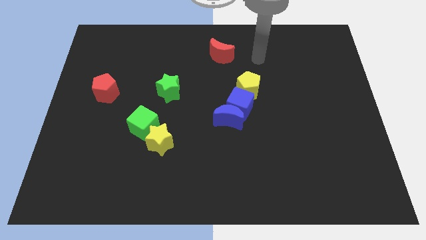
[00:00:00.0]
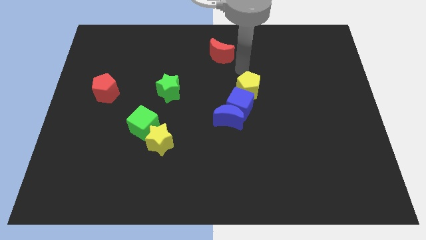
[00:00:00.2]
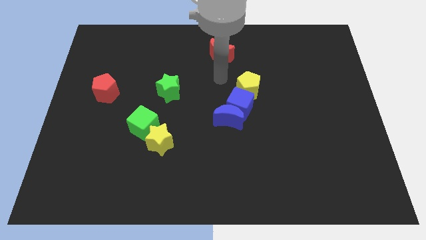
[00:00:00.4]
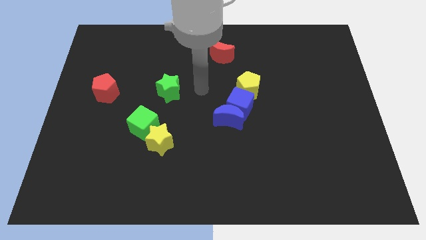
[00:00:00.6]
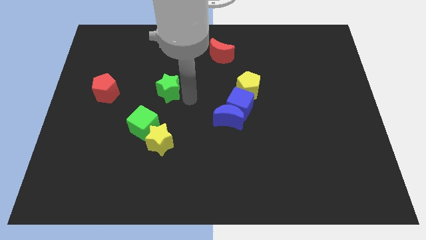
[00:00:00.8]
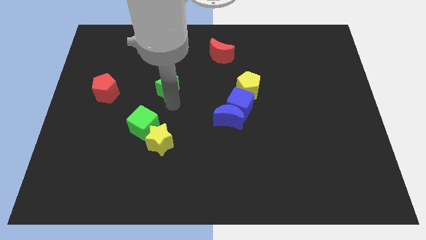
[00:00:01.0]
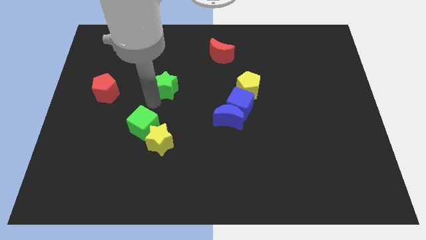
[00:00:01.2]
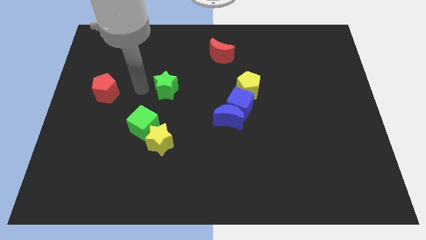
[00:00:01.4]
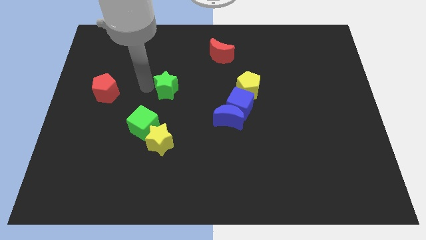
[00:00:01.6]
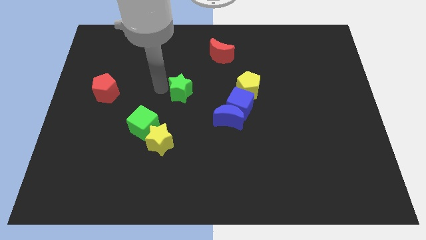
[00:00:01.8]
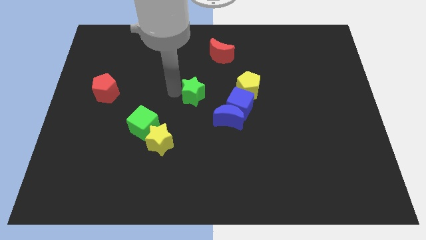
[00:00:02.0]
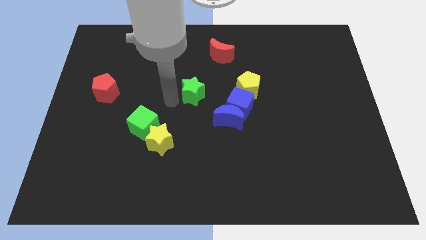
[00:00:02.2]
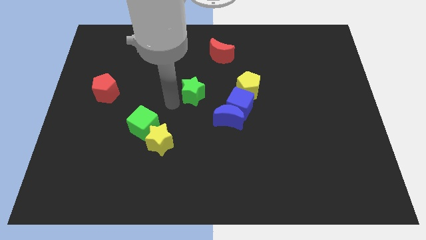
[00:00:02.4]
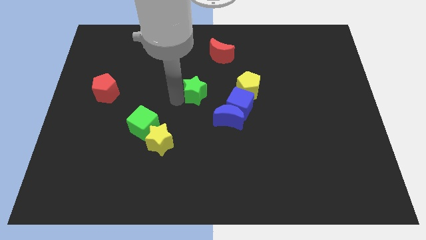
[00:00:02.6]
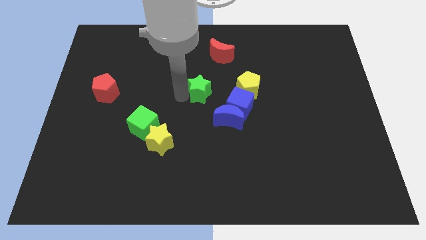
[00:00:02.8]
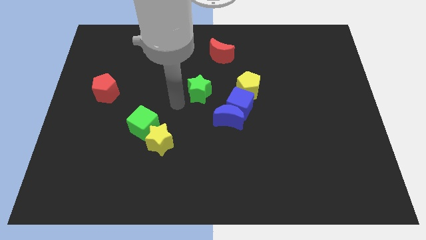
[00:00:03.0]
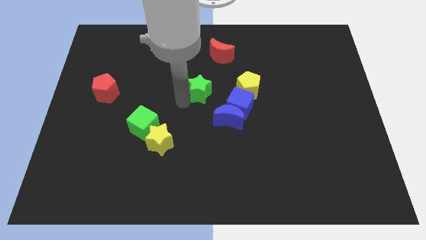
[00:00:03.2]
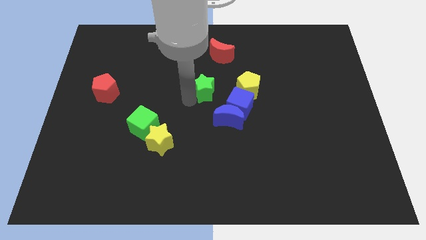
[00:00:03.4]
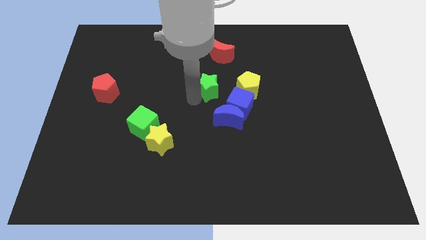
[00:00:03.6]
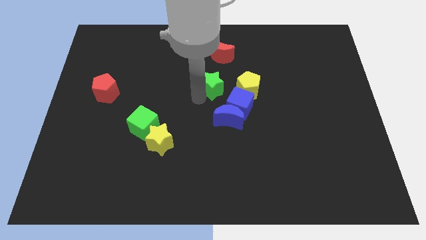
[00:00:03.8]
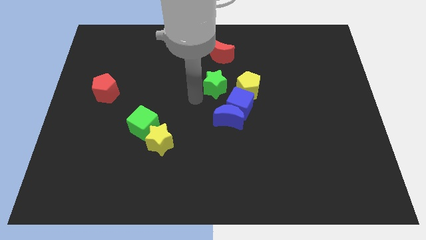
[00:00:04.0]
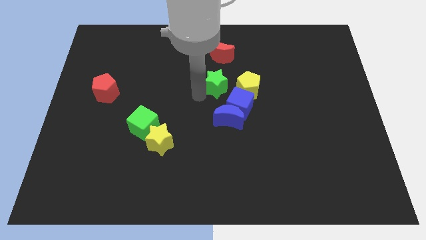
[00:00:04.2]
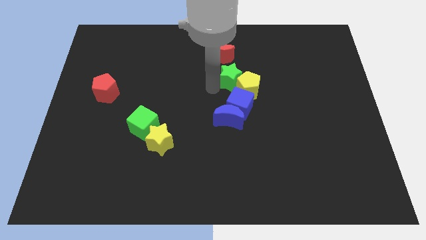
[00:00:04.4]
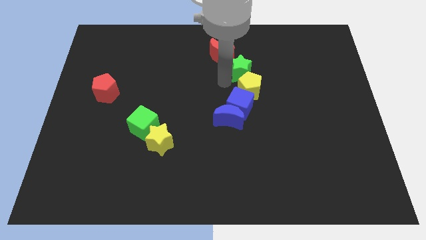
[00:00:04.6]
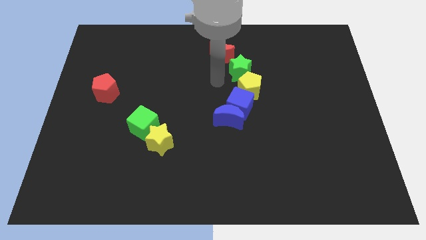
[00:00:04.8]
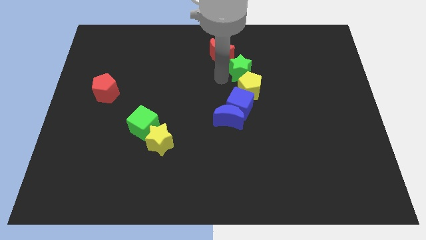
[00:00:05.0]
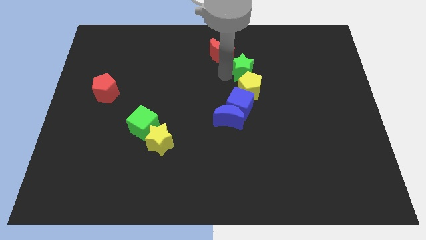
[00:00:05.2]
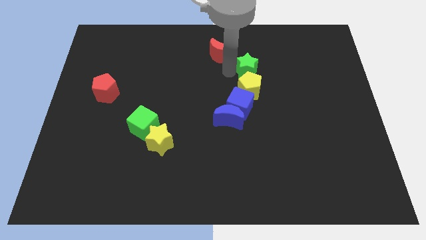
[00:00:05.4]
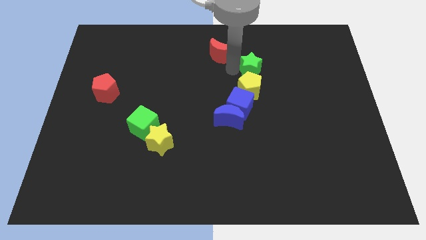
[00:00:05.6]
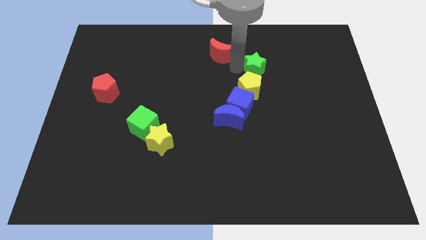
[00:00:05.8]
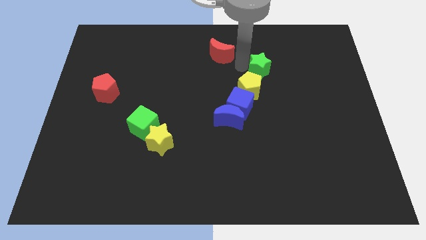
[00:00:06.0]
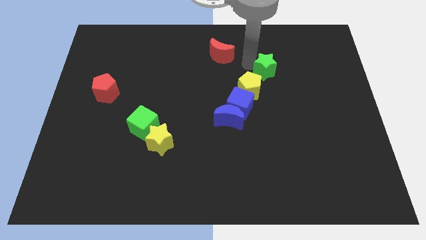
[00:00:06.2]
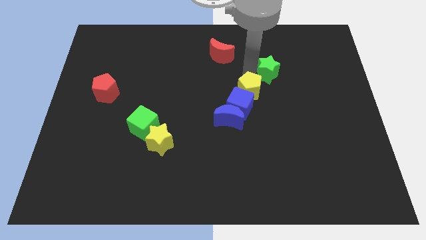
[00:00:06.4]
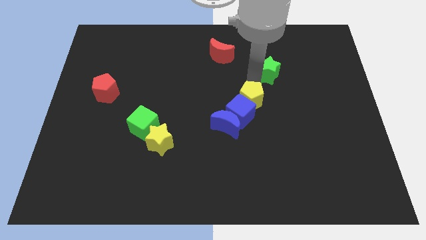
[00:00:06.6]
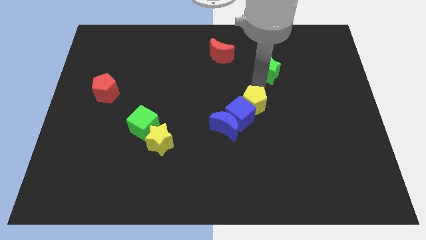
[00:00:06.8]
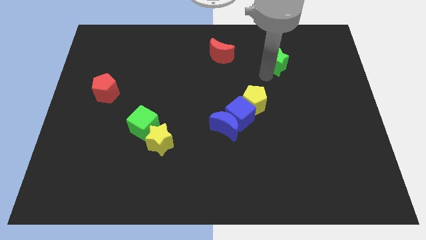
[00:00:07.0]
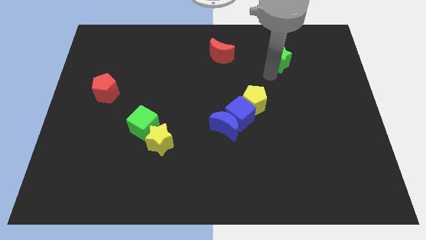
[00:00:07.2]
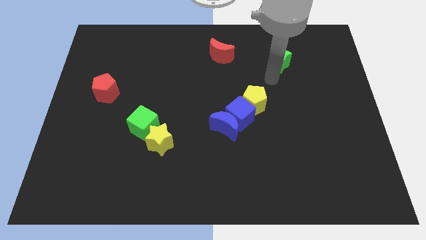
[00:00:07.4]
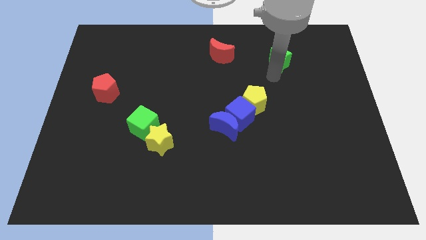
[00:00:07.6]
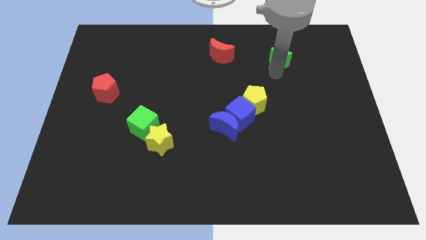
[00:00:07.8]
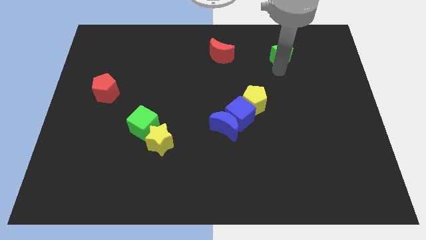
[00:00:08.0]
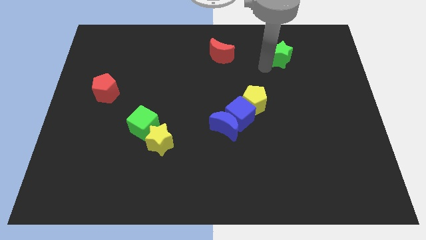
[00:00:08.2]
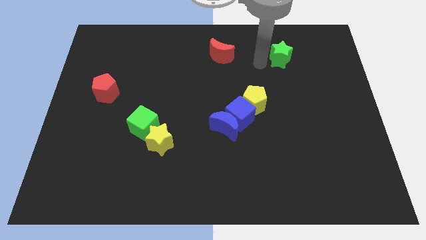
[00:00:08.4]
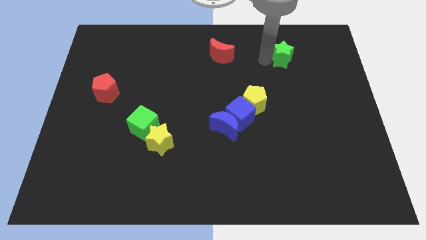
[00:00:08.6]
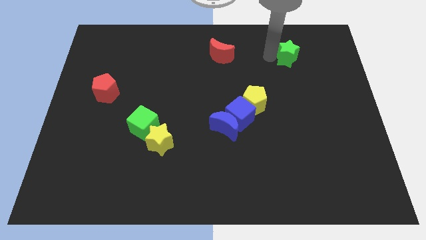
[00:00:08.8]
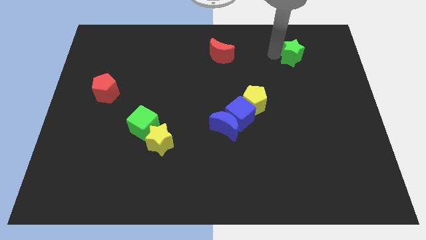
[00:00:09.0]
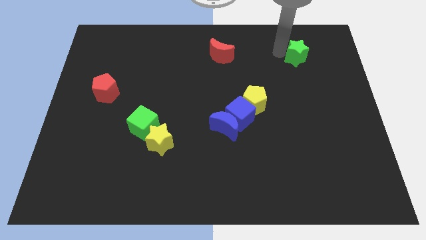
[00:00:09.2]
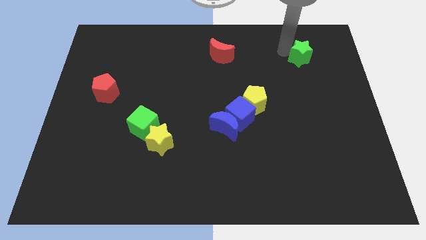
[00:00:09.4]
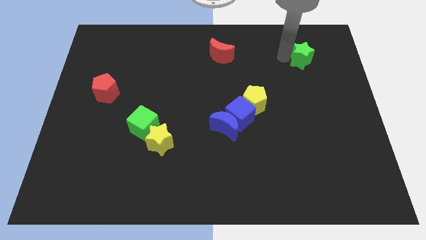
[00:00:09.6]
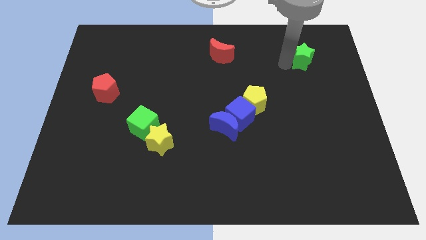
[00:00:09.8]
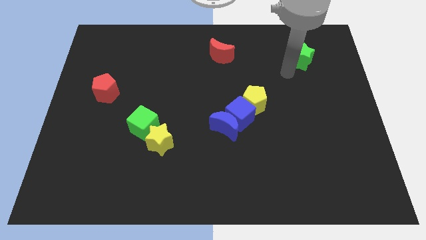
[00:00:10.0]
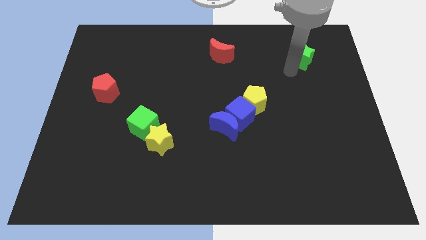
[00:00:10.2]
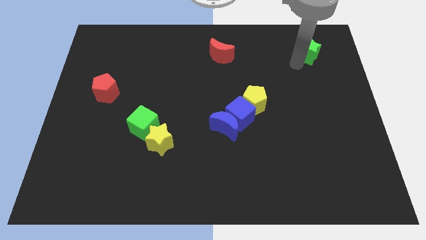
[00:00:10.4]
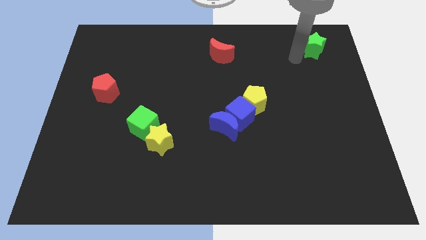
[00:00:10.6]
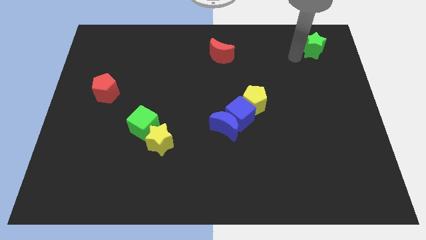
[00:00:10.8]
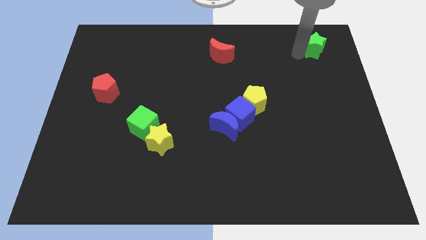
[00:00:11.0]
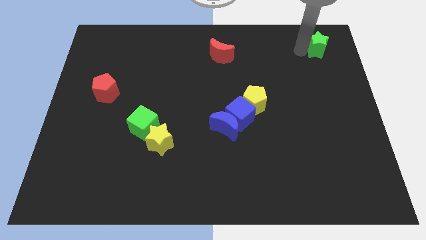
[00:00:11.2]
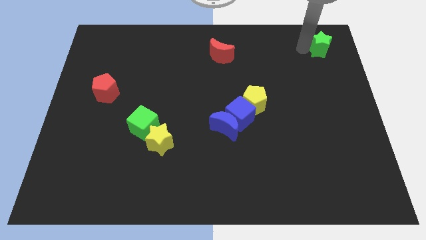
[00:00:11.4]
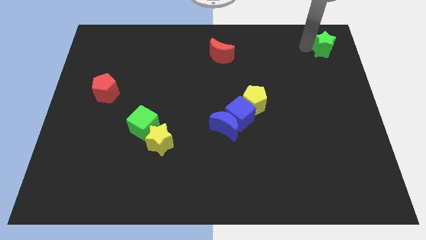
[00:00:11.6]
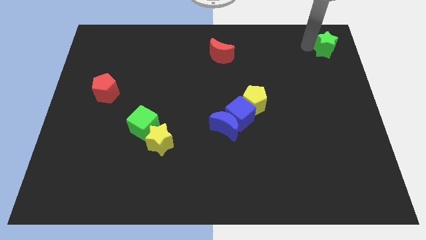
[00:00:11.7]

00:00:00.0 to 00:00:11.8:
push the green star to the top right

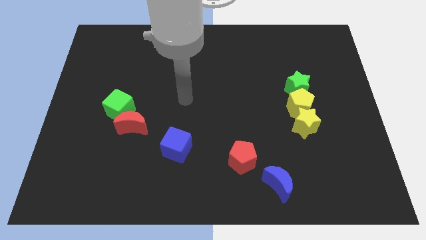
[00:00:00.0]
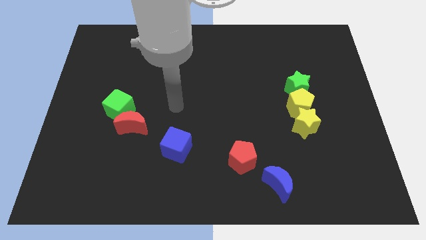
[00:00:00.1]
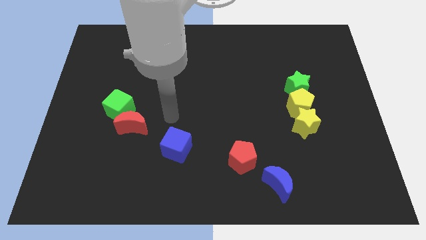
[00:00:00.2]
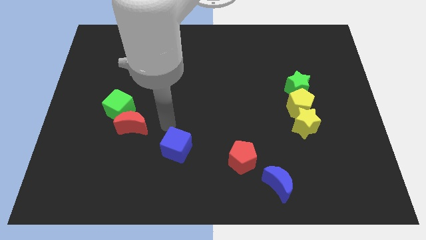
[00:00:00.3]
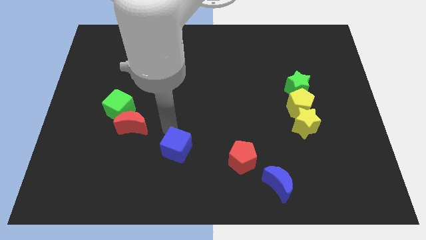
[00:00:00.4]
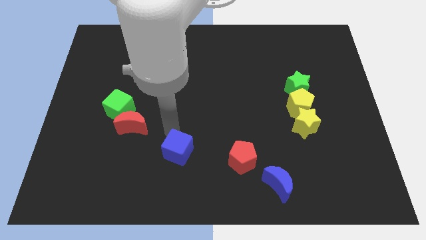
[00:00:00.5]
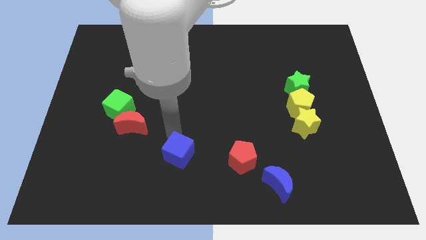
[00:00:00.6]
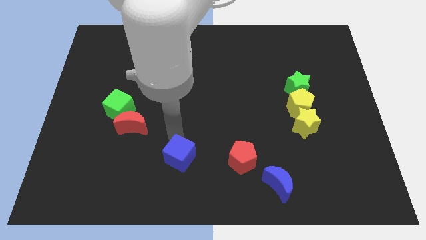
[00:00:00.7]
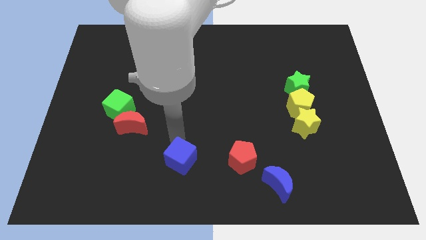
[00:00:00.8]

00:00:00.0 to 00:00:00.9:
move the blue cube to the bottom side
